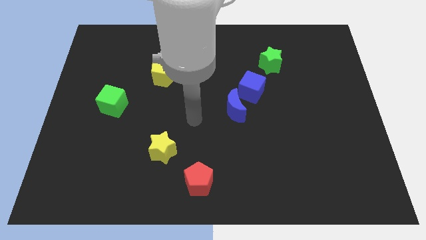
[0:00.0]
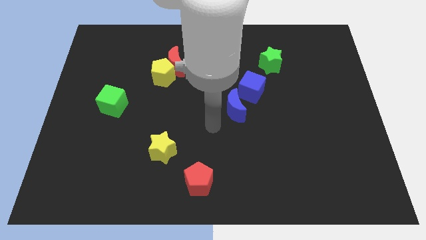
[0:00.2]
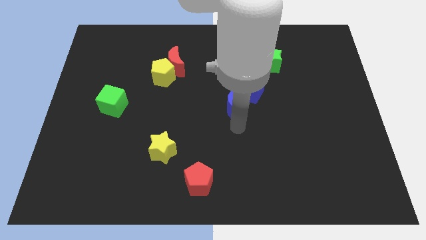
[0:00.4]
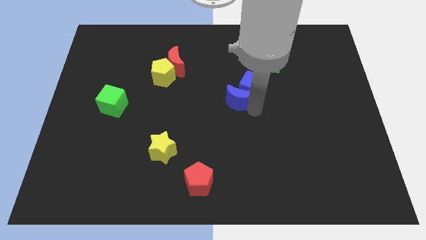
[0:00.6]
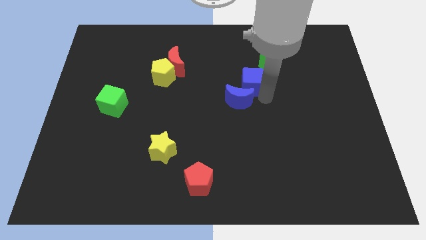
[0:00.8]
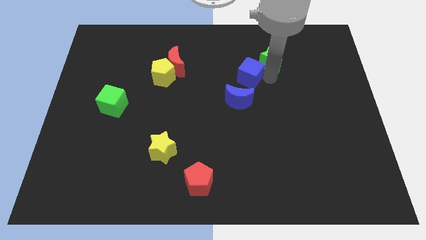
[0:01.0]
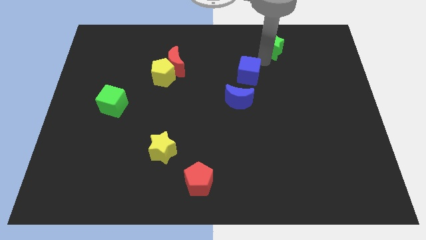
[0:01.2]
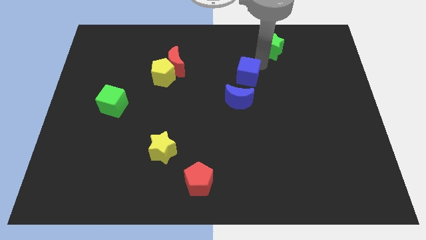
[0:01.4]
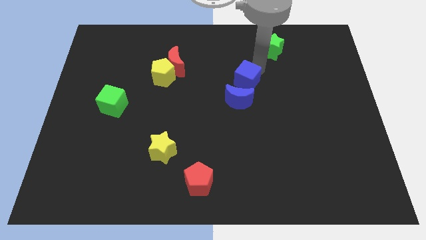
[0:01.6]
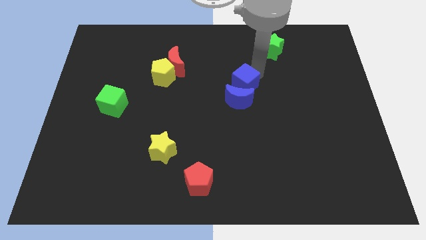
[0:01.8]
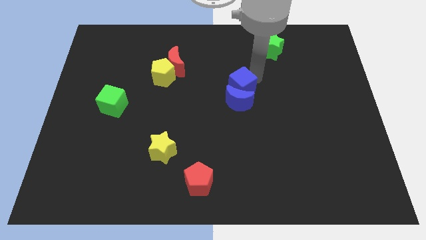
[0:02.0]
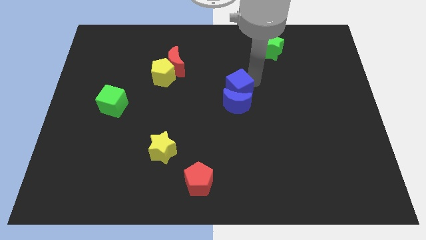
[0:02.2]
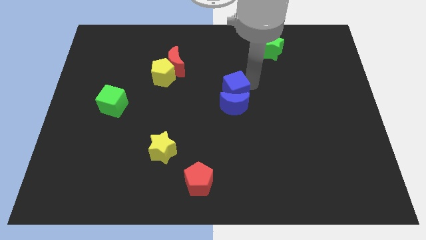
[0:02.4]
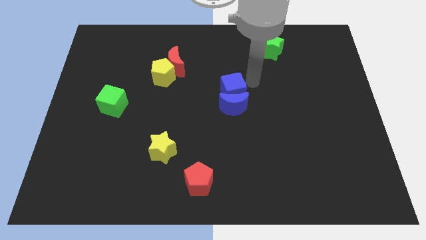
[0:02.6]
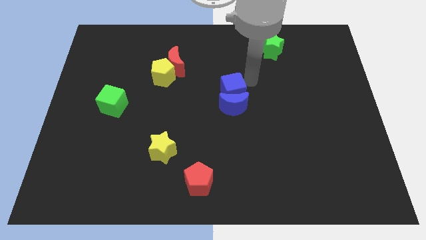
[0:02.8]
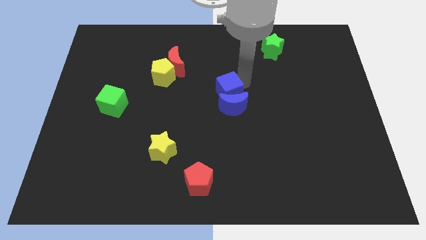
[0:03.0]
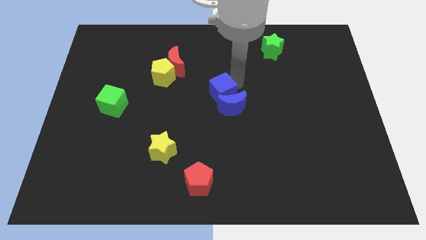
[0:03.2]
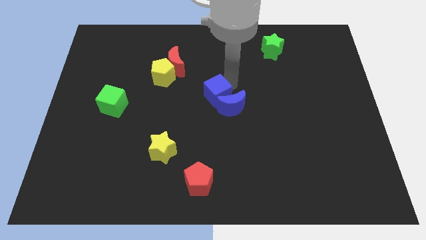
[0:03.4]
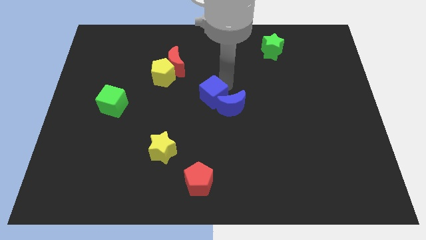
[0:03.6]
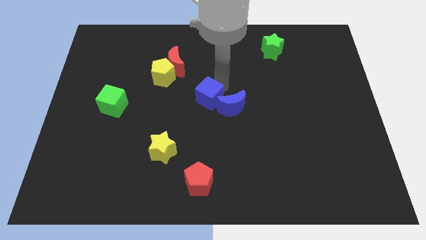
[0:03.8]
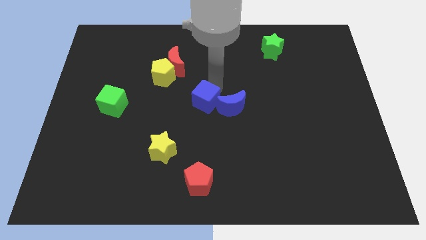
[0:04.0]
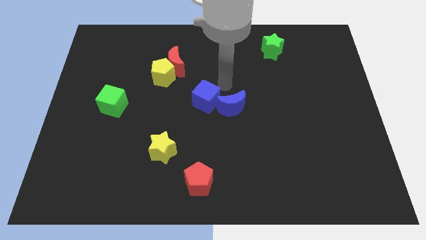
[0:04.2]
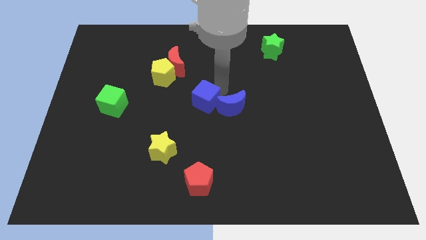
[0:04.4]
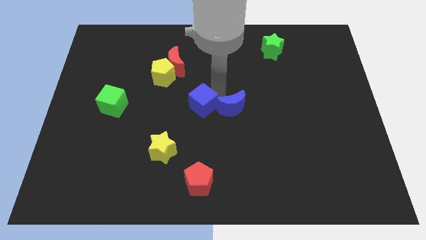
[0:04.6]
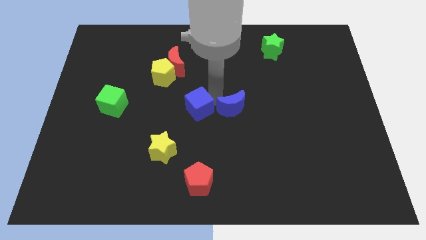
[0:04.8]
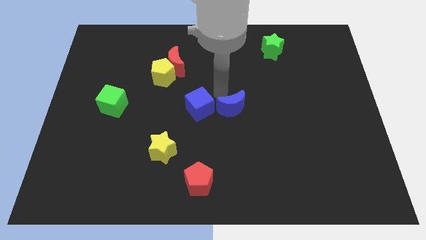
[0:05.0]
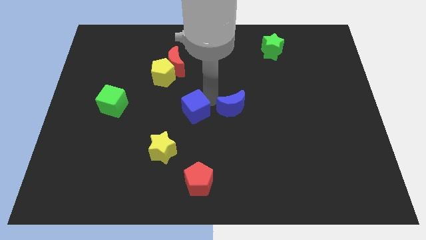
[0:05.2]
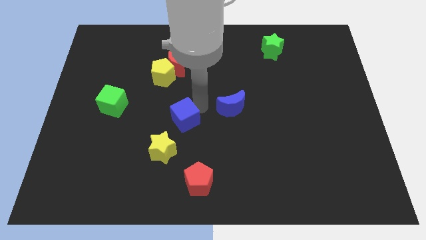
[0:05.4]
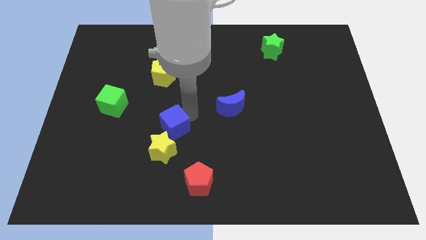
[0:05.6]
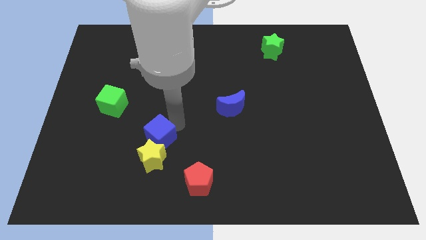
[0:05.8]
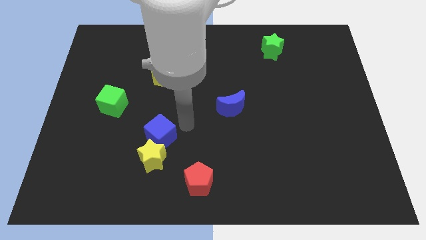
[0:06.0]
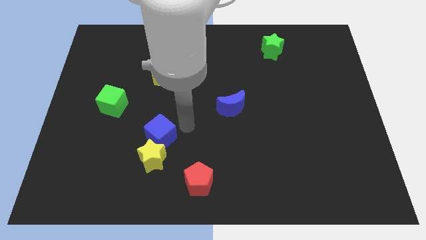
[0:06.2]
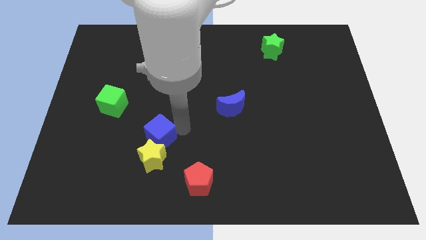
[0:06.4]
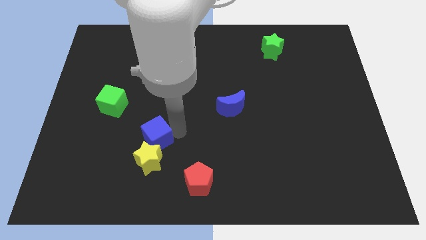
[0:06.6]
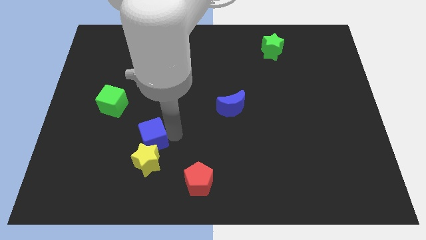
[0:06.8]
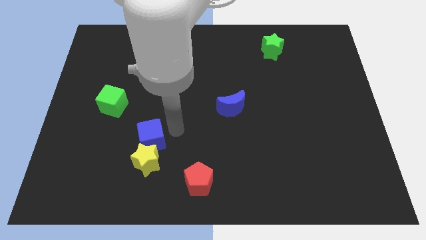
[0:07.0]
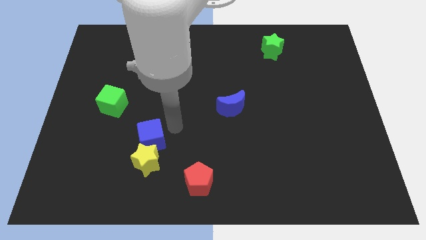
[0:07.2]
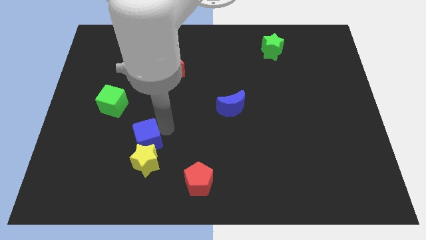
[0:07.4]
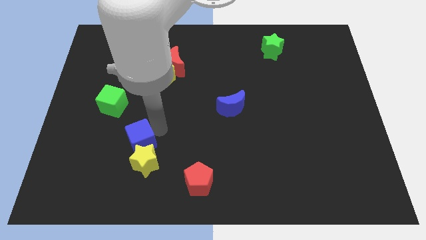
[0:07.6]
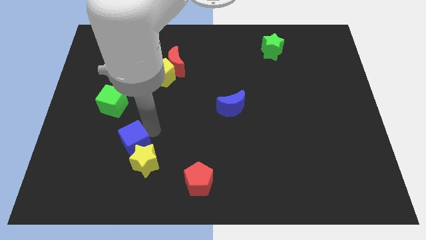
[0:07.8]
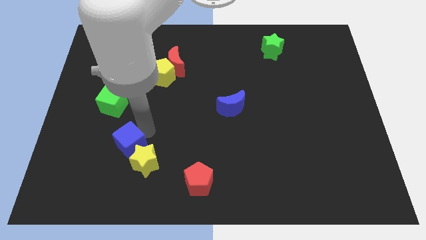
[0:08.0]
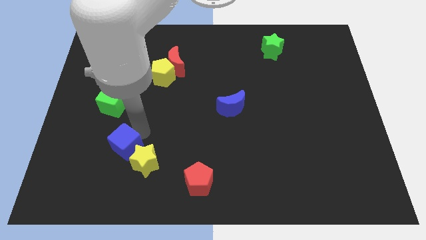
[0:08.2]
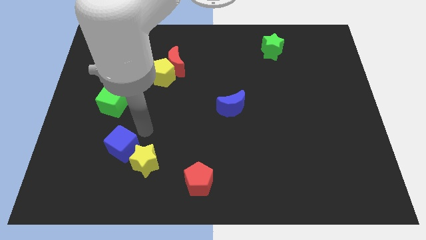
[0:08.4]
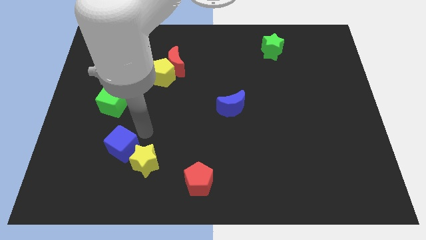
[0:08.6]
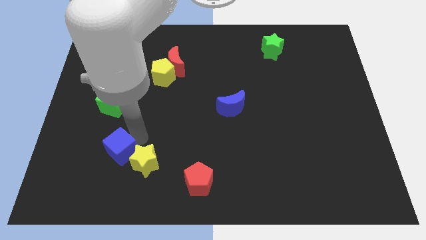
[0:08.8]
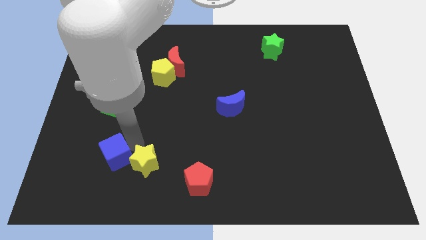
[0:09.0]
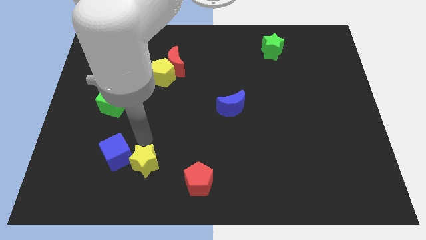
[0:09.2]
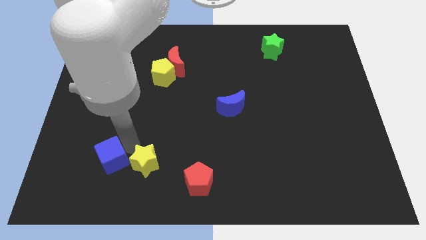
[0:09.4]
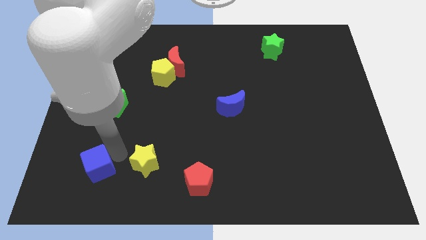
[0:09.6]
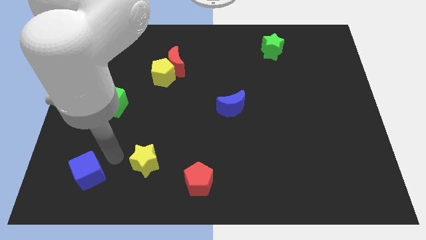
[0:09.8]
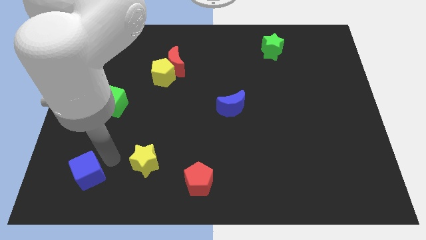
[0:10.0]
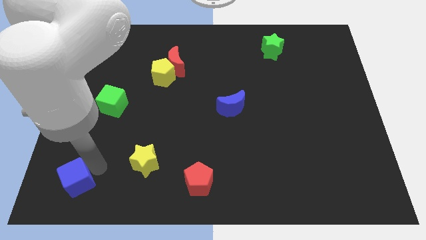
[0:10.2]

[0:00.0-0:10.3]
push the blue cube to the bottom left
